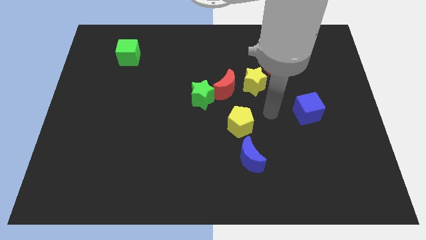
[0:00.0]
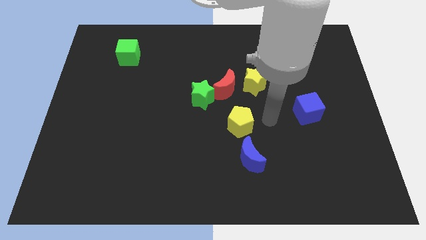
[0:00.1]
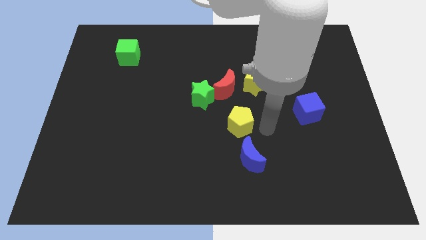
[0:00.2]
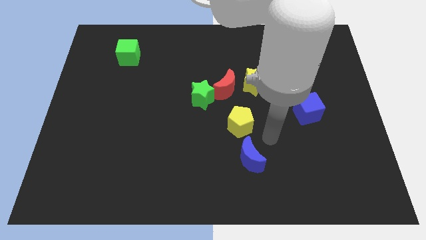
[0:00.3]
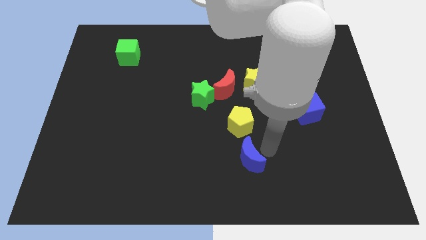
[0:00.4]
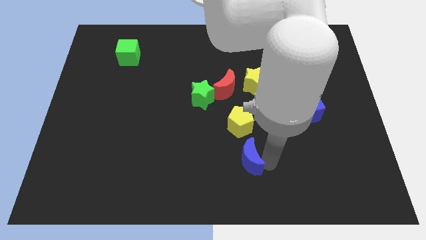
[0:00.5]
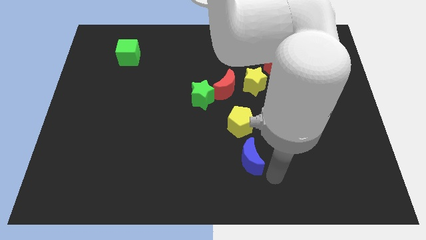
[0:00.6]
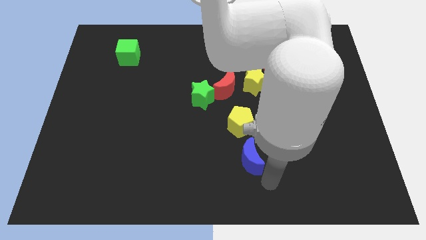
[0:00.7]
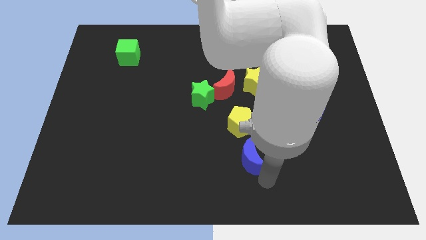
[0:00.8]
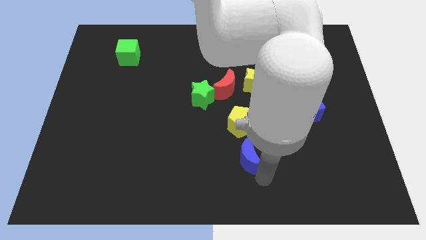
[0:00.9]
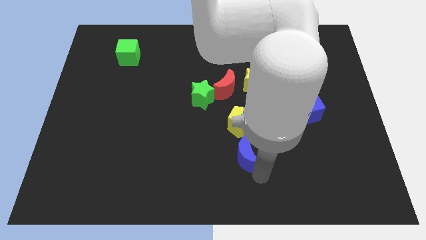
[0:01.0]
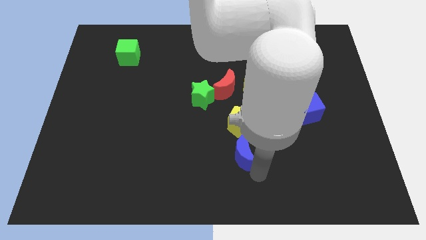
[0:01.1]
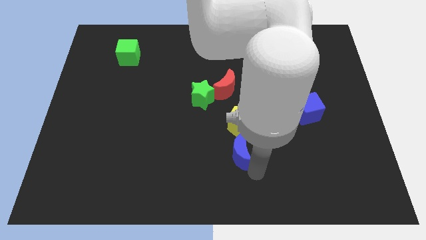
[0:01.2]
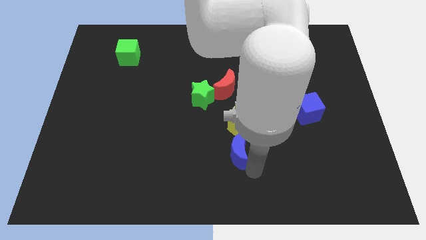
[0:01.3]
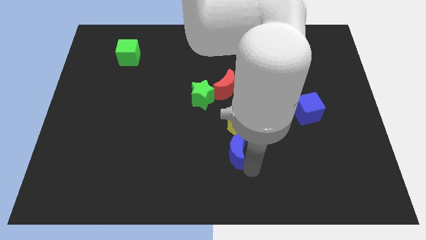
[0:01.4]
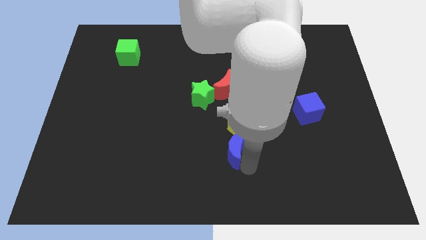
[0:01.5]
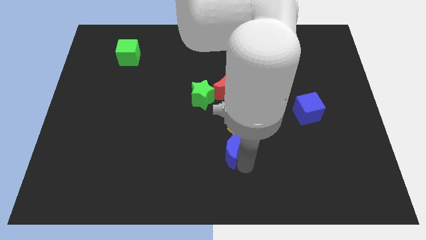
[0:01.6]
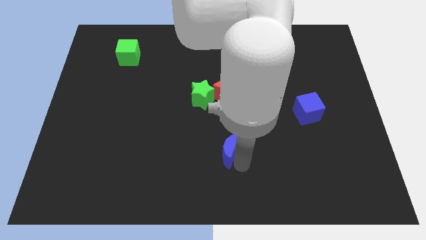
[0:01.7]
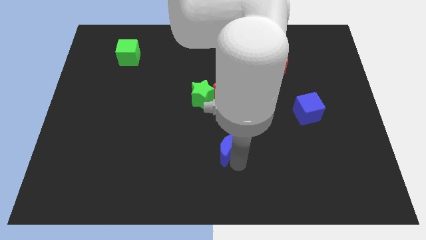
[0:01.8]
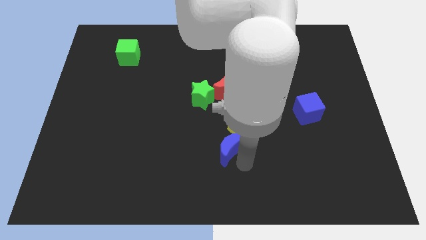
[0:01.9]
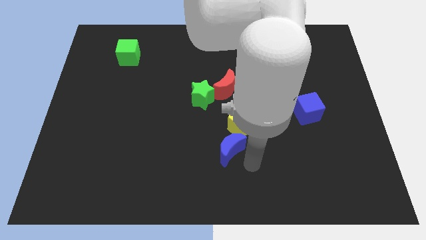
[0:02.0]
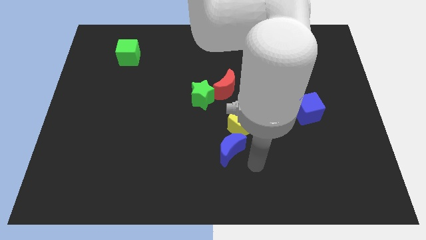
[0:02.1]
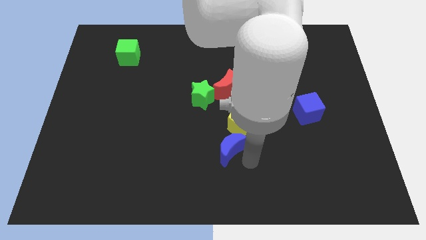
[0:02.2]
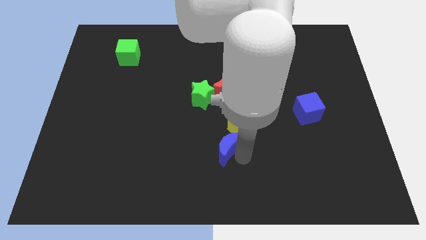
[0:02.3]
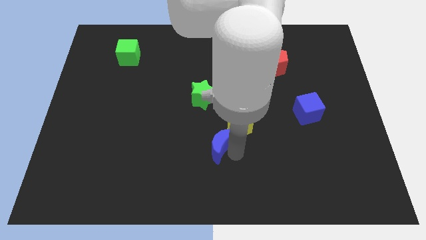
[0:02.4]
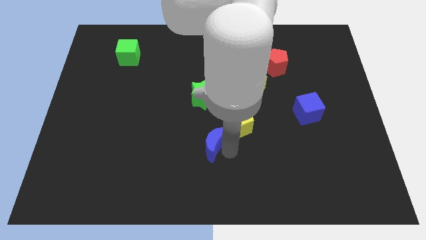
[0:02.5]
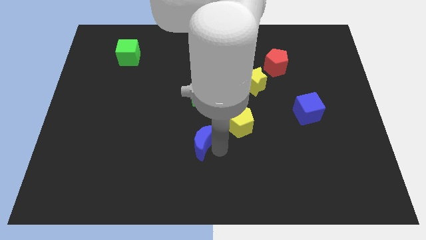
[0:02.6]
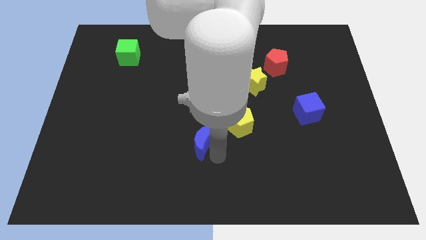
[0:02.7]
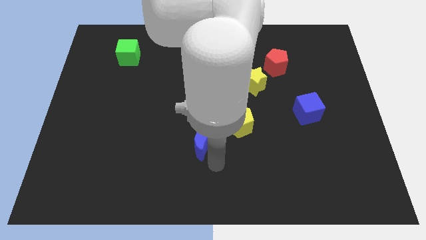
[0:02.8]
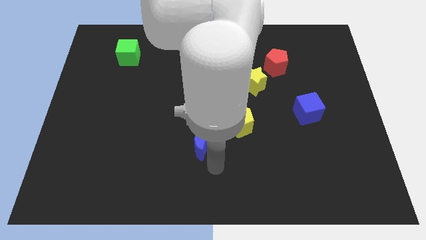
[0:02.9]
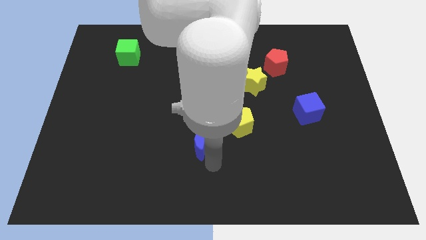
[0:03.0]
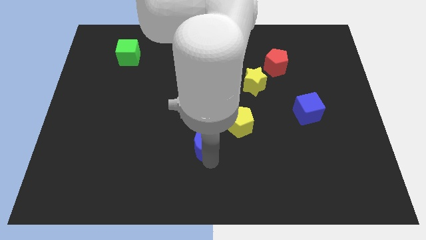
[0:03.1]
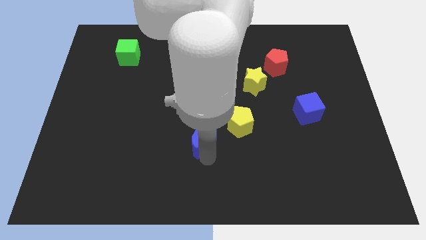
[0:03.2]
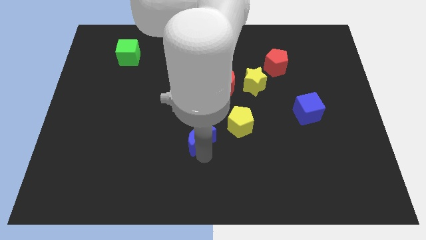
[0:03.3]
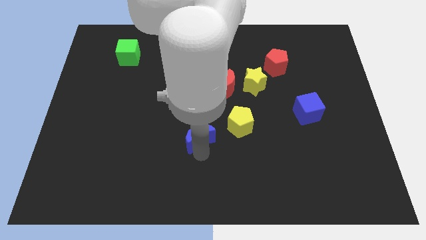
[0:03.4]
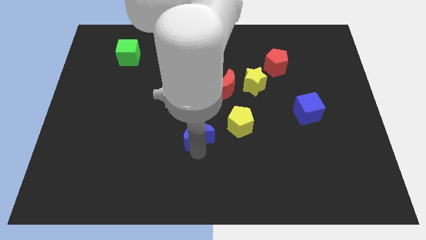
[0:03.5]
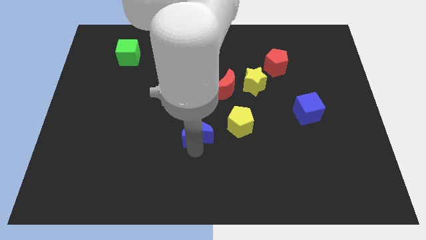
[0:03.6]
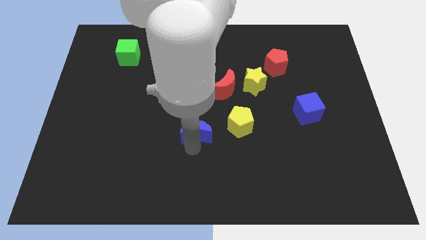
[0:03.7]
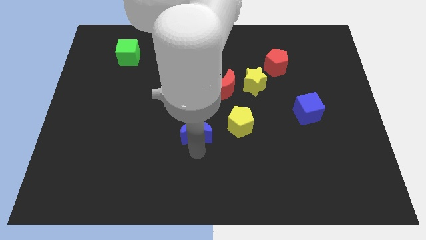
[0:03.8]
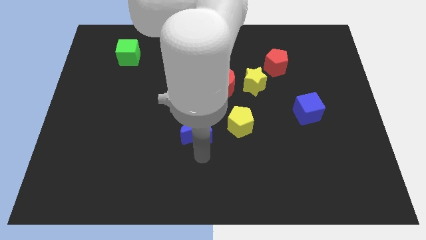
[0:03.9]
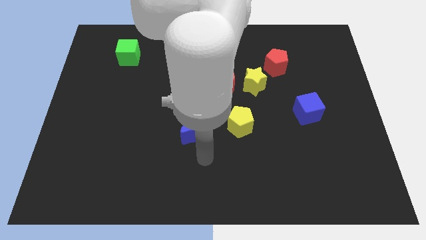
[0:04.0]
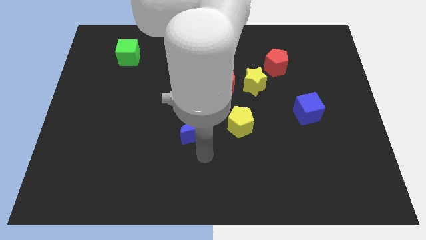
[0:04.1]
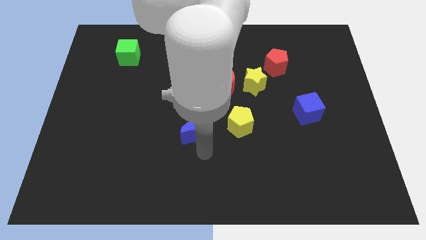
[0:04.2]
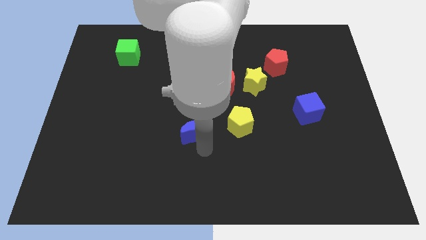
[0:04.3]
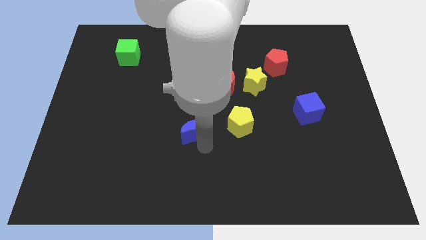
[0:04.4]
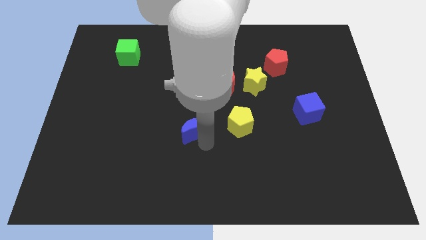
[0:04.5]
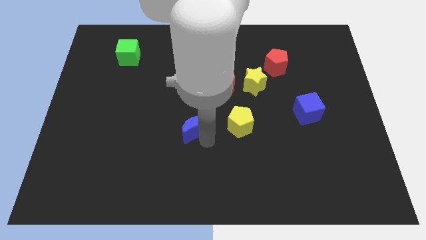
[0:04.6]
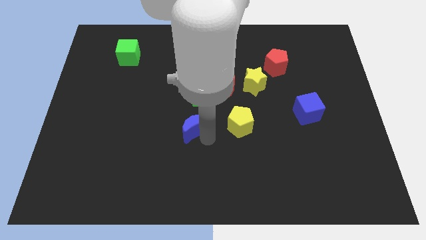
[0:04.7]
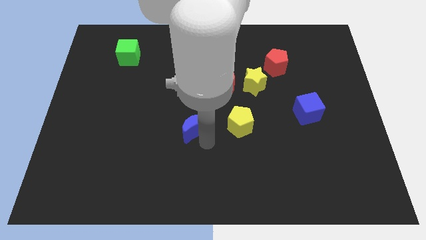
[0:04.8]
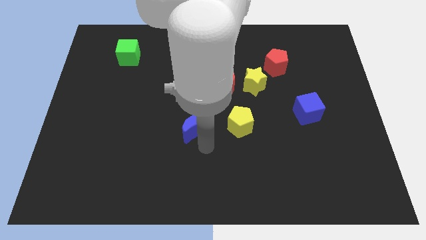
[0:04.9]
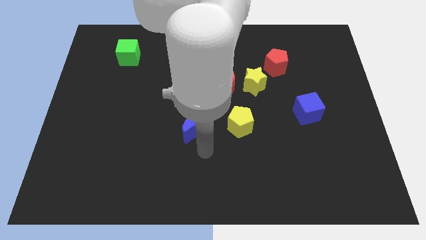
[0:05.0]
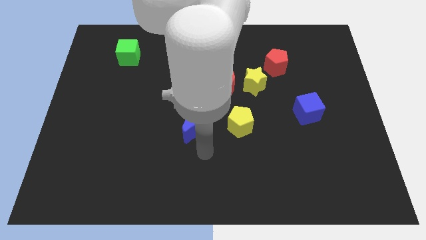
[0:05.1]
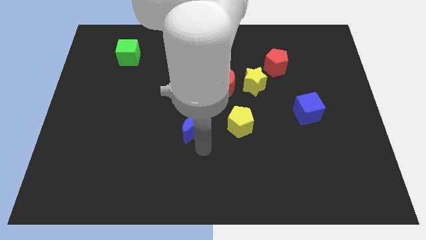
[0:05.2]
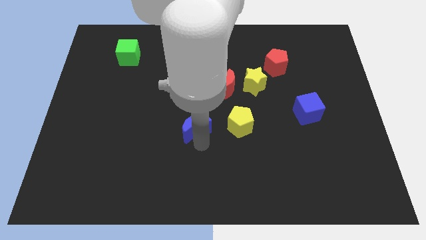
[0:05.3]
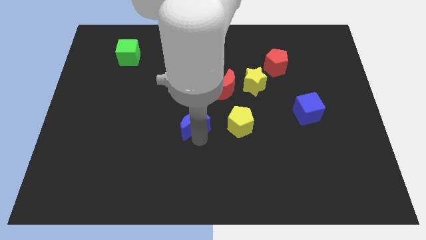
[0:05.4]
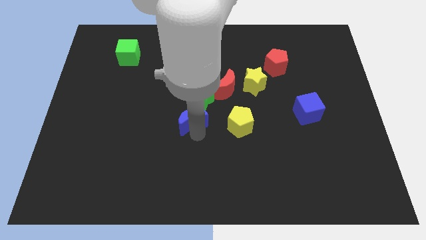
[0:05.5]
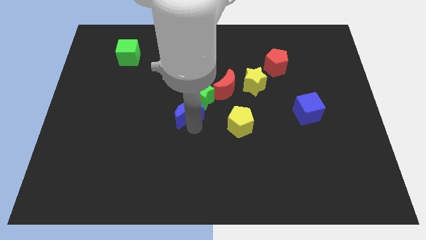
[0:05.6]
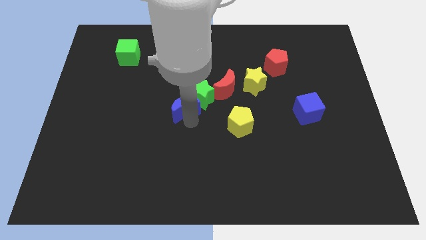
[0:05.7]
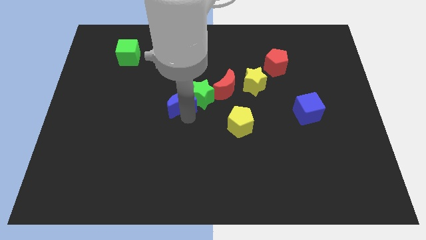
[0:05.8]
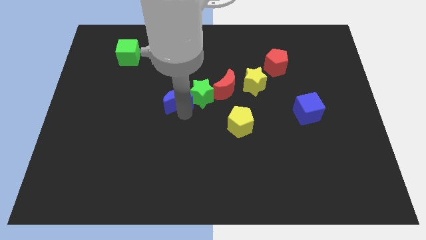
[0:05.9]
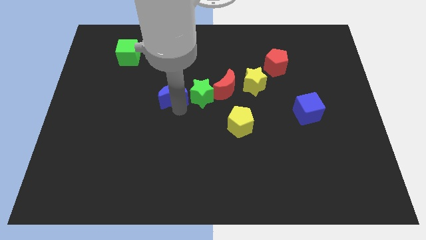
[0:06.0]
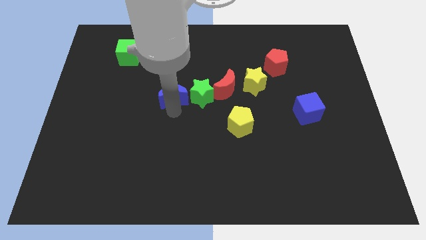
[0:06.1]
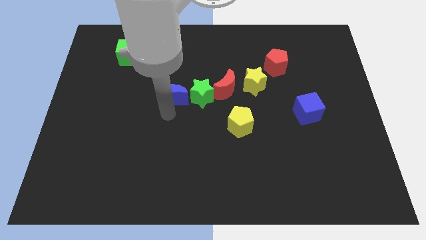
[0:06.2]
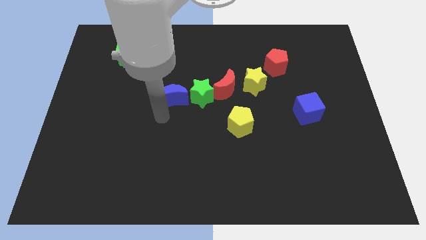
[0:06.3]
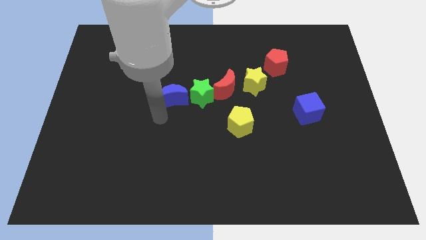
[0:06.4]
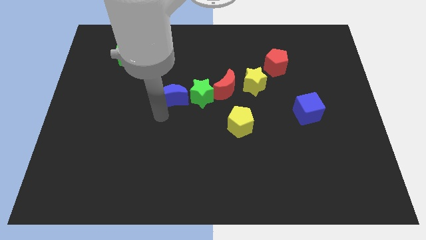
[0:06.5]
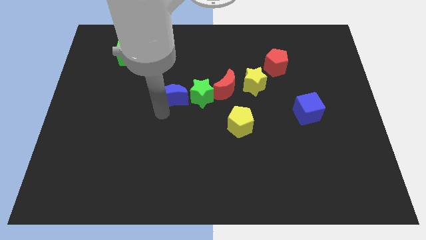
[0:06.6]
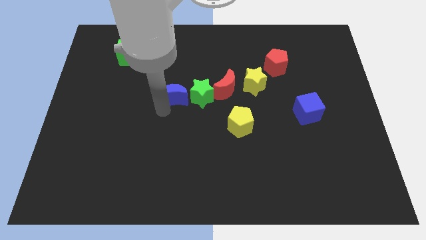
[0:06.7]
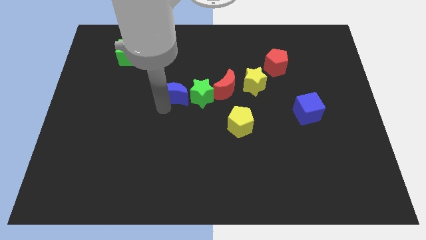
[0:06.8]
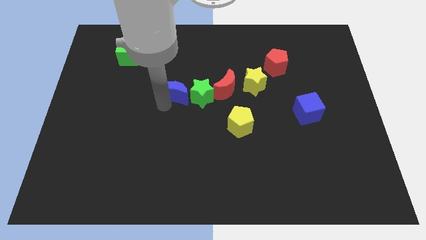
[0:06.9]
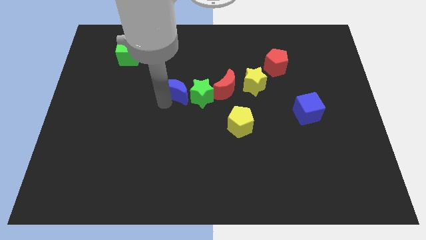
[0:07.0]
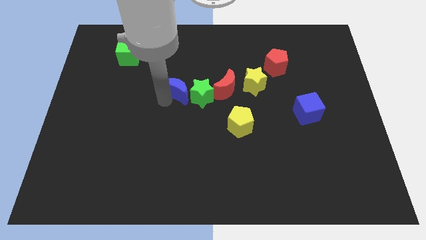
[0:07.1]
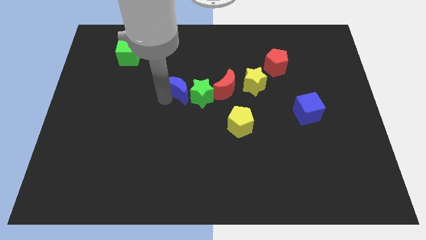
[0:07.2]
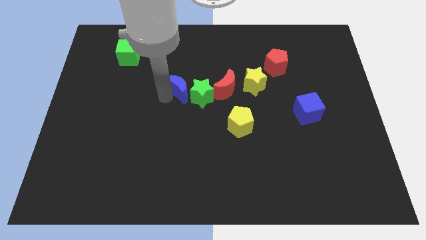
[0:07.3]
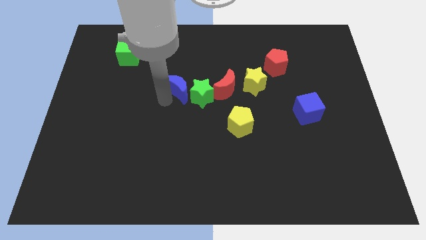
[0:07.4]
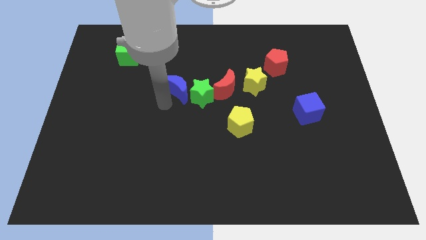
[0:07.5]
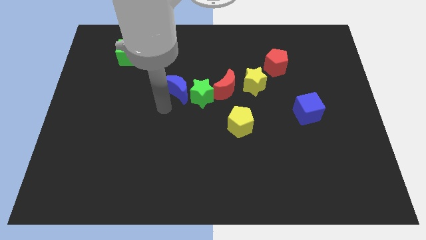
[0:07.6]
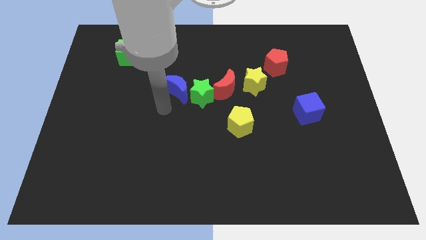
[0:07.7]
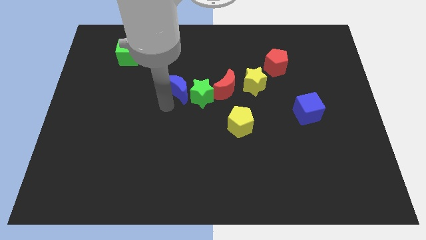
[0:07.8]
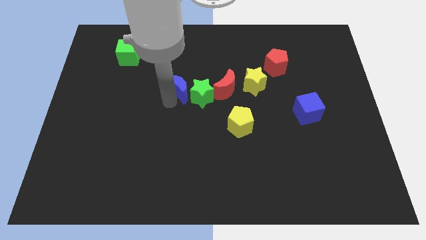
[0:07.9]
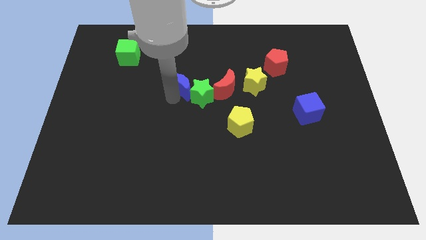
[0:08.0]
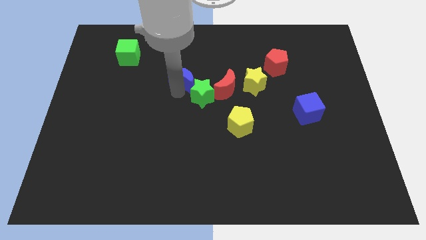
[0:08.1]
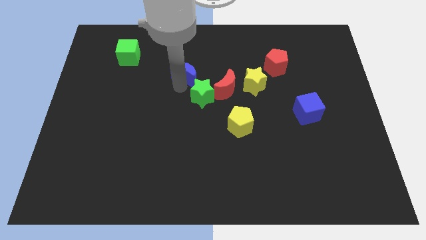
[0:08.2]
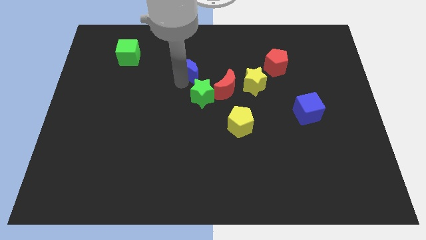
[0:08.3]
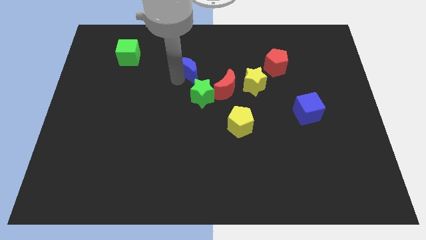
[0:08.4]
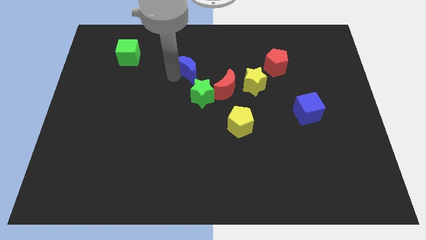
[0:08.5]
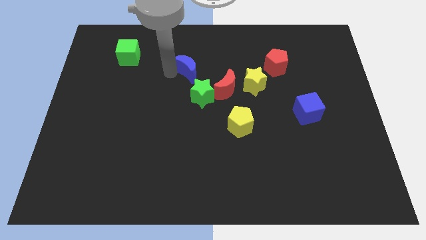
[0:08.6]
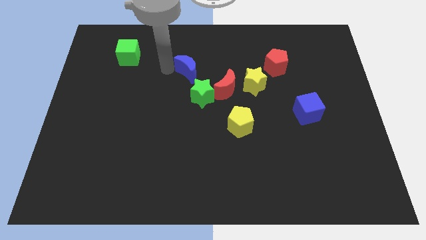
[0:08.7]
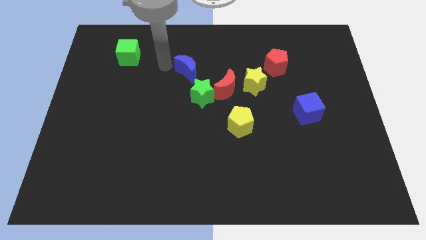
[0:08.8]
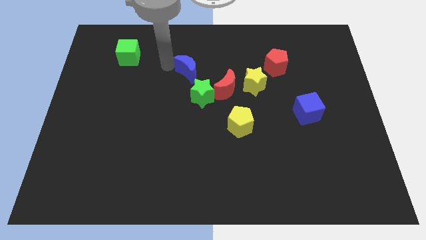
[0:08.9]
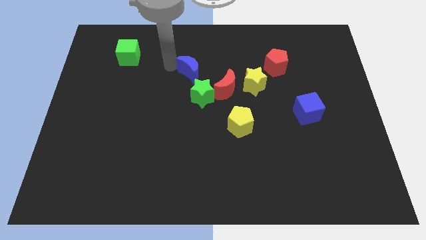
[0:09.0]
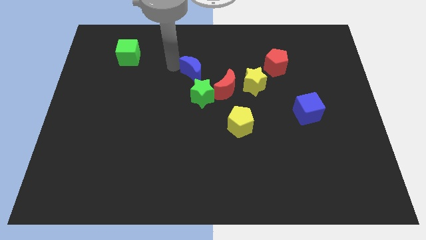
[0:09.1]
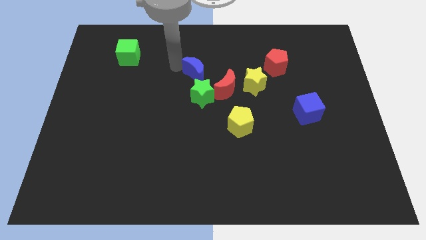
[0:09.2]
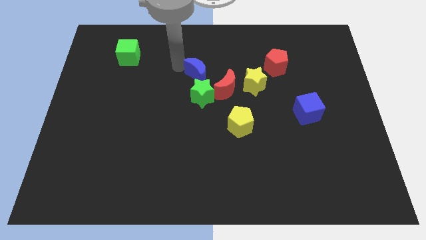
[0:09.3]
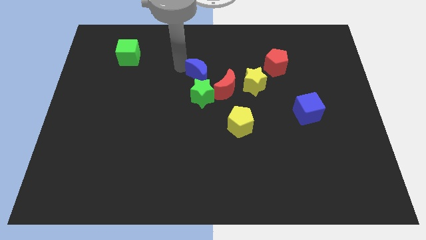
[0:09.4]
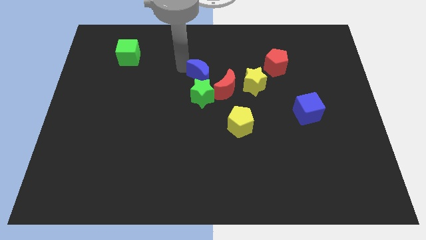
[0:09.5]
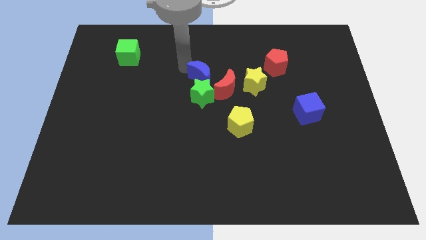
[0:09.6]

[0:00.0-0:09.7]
put the blue moon diagonally up and to the right of the green star
